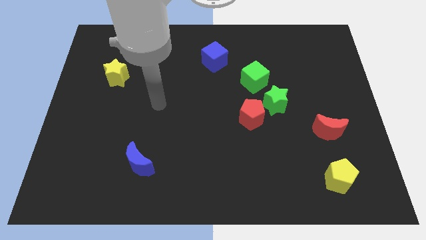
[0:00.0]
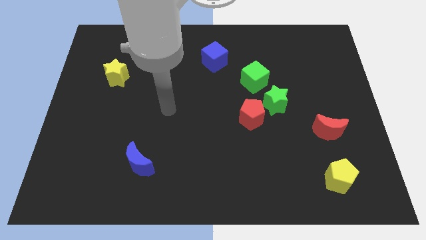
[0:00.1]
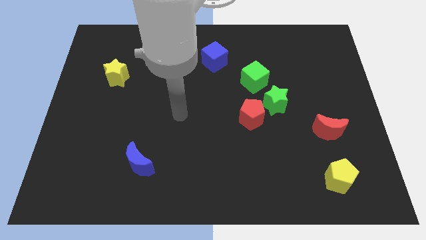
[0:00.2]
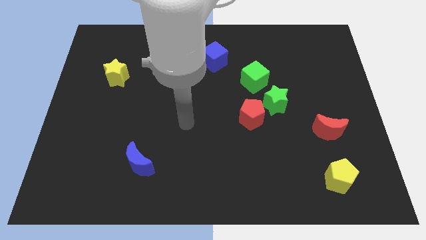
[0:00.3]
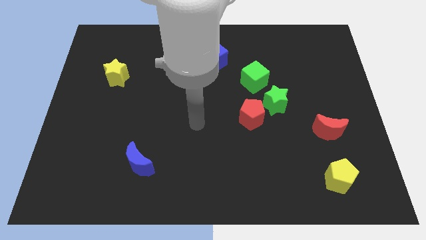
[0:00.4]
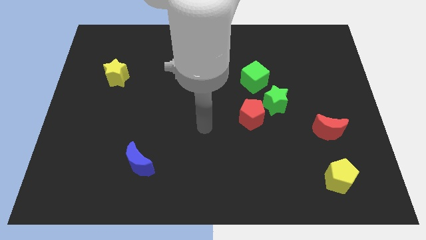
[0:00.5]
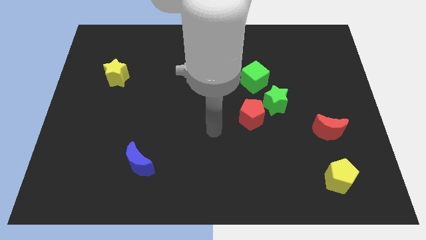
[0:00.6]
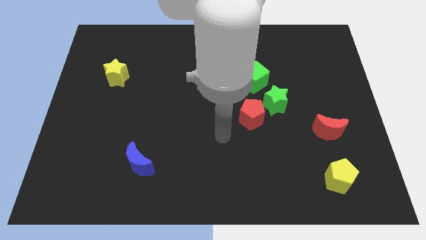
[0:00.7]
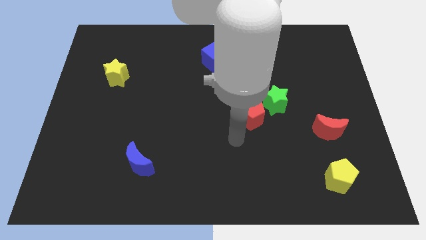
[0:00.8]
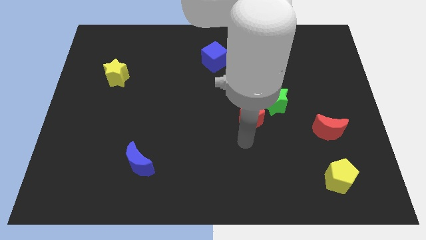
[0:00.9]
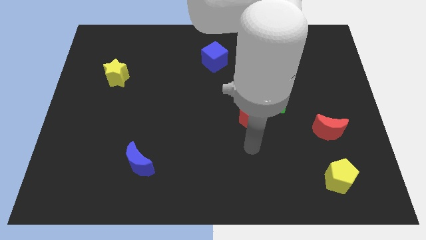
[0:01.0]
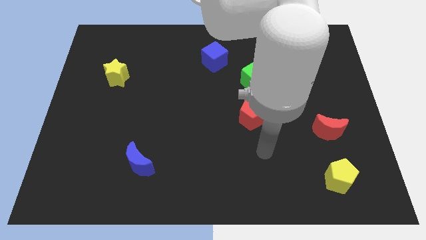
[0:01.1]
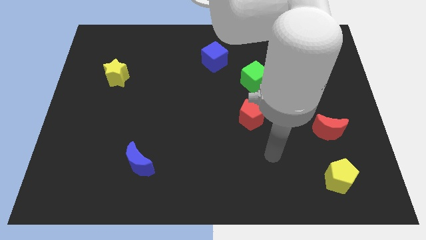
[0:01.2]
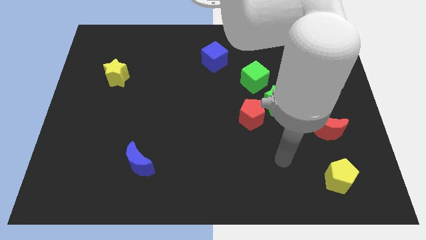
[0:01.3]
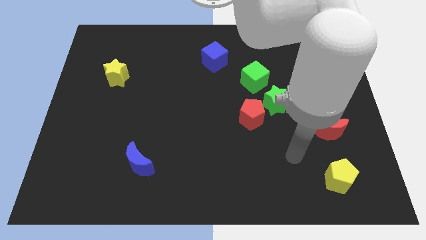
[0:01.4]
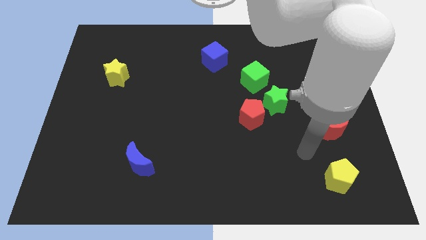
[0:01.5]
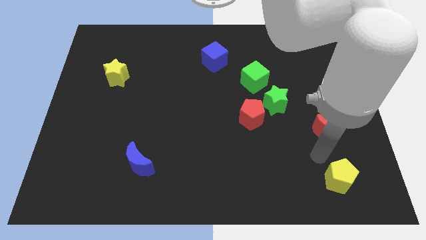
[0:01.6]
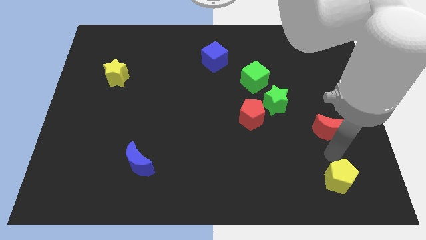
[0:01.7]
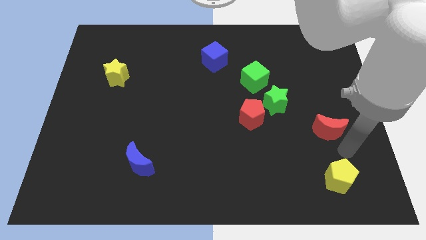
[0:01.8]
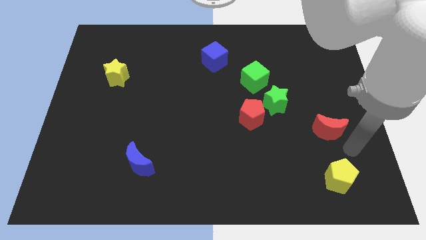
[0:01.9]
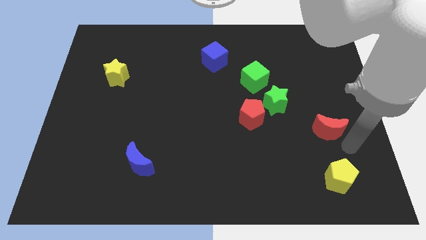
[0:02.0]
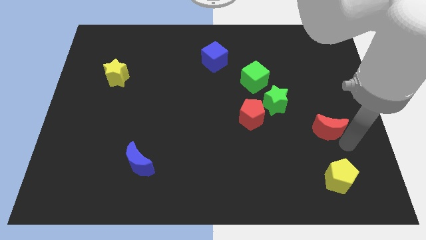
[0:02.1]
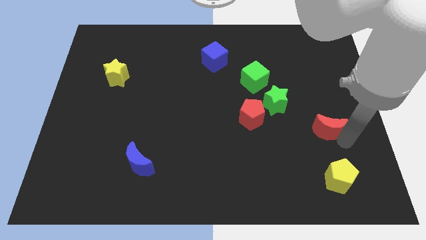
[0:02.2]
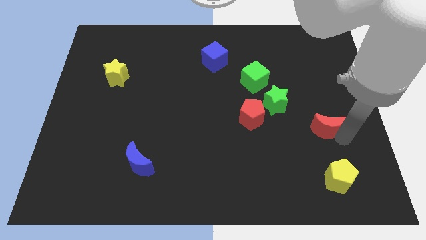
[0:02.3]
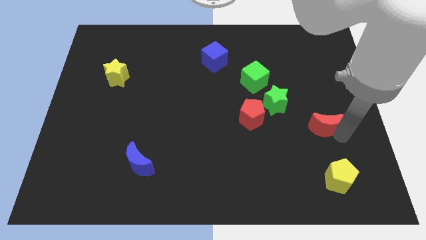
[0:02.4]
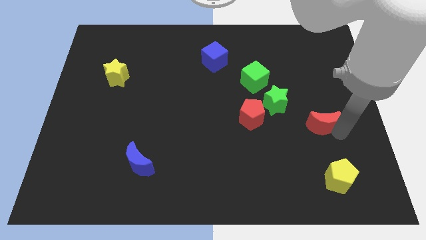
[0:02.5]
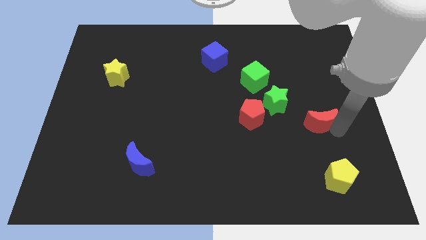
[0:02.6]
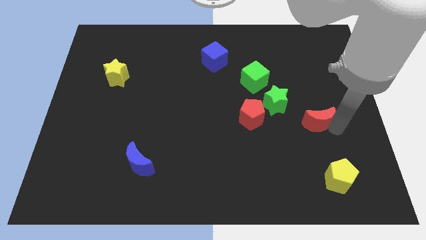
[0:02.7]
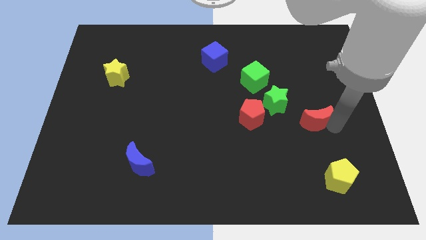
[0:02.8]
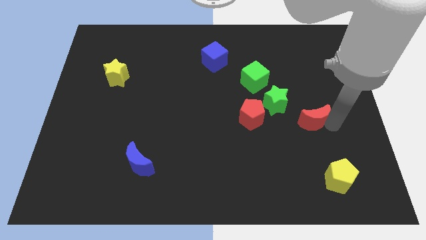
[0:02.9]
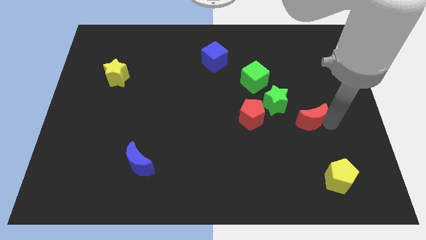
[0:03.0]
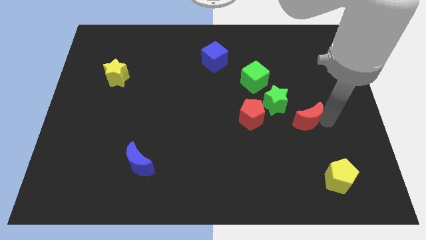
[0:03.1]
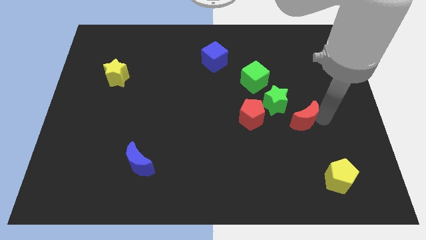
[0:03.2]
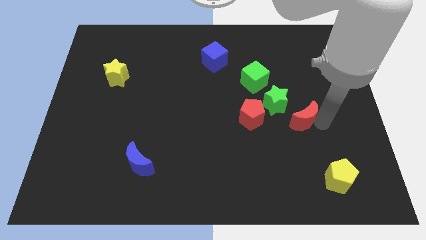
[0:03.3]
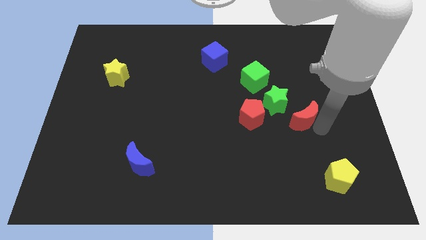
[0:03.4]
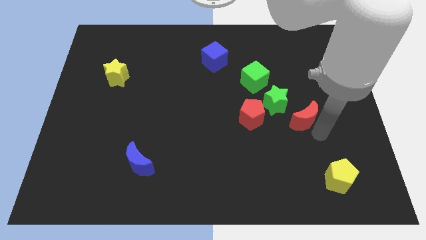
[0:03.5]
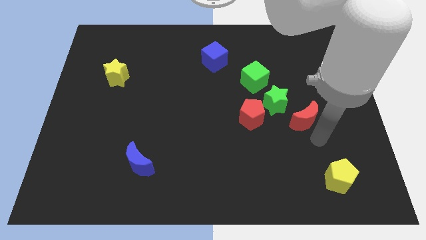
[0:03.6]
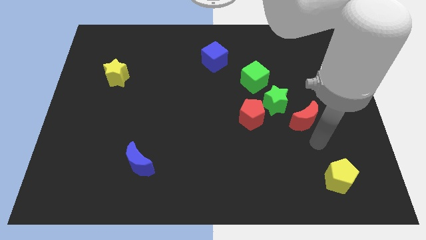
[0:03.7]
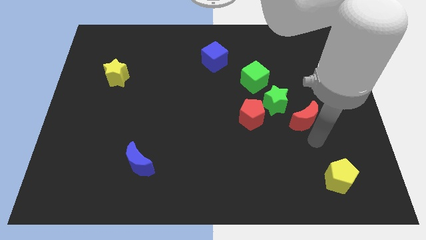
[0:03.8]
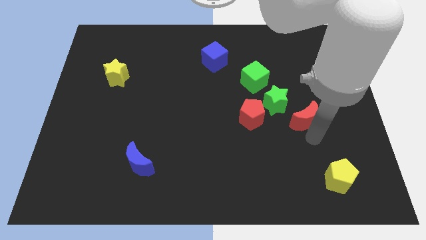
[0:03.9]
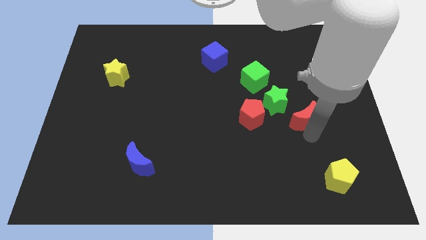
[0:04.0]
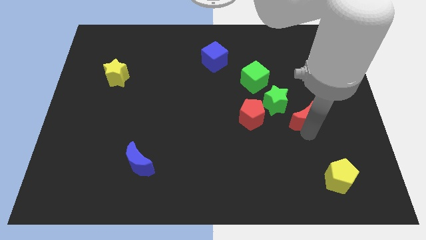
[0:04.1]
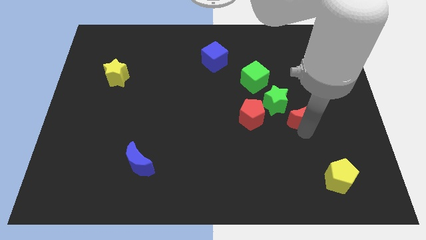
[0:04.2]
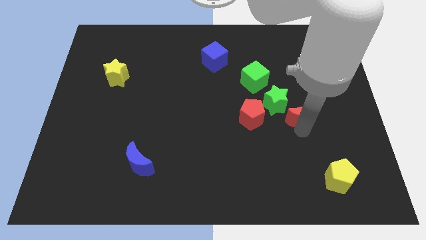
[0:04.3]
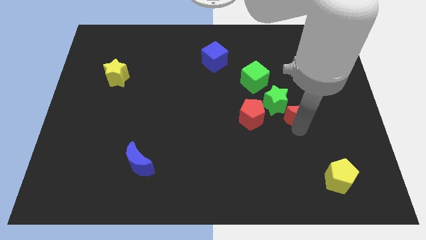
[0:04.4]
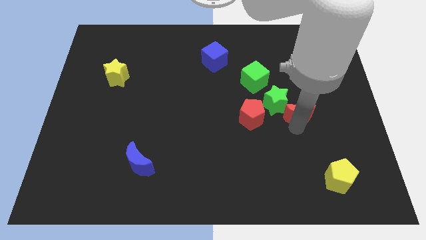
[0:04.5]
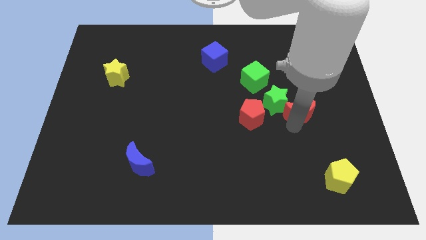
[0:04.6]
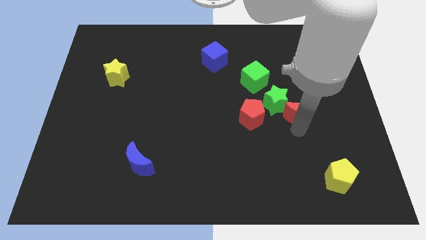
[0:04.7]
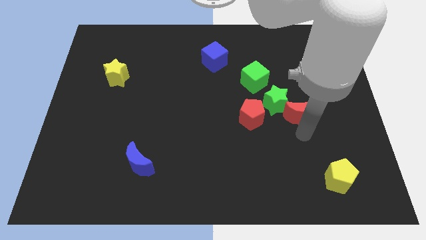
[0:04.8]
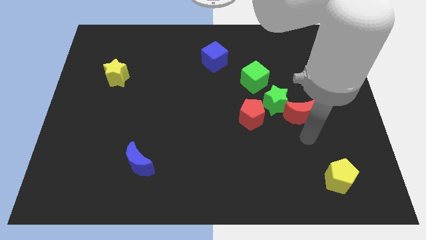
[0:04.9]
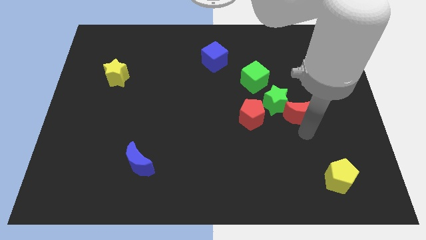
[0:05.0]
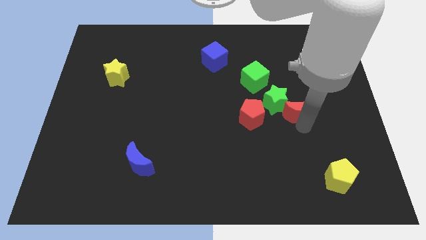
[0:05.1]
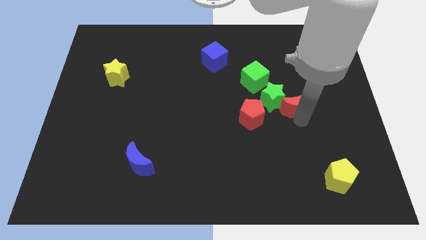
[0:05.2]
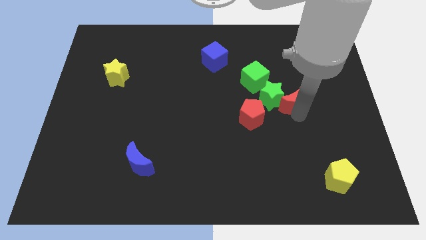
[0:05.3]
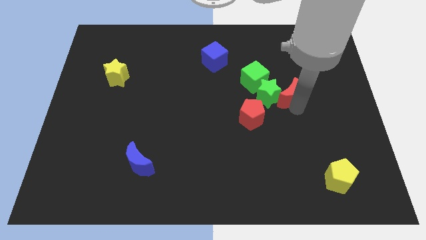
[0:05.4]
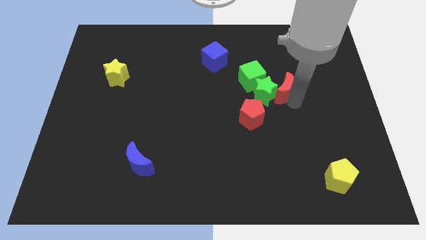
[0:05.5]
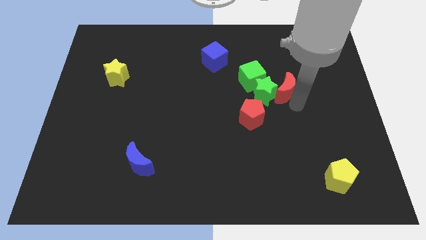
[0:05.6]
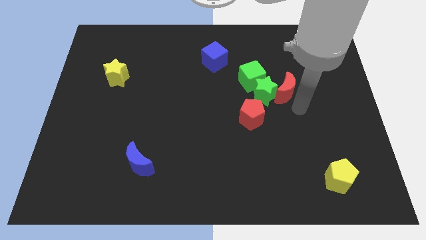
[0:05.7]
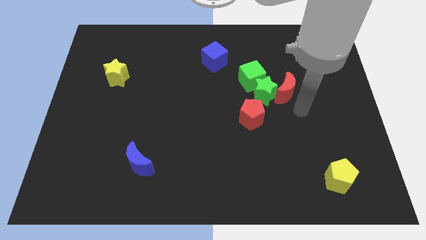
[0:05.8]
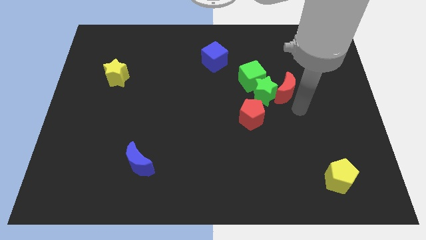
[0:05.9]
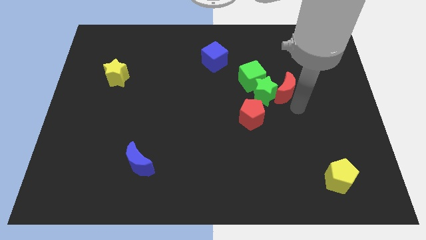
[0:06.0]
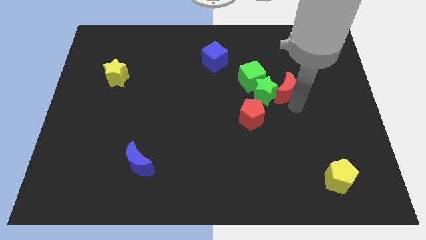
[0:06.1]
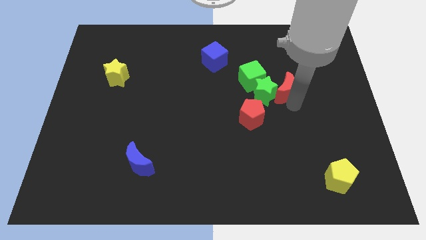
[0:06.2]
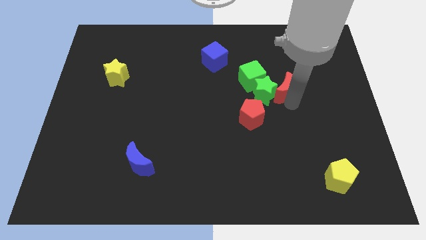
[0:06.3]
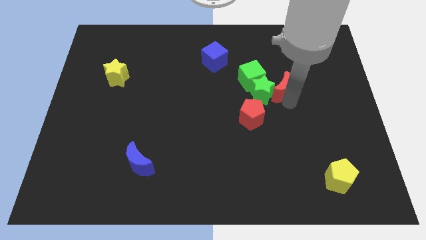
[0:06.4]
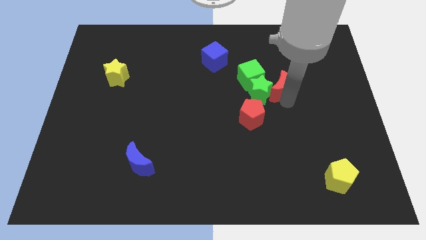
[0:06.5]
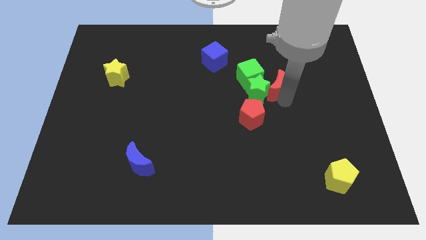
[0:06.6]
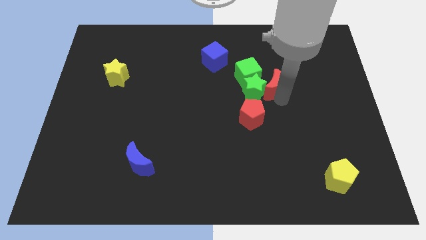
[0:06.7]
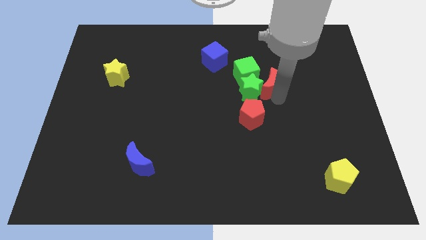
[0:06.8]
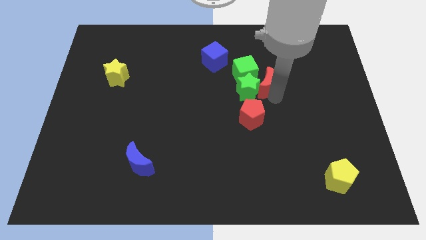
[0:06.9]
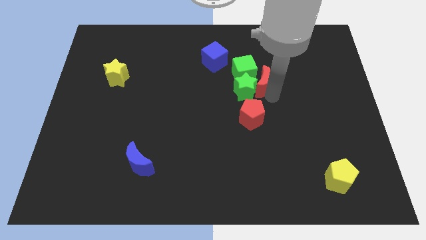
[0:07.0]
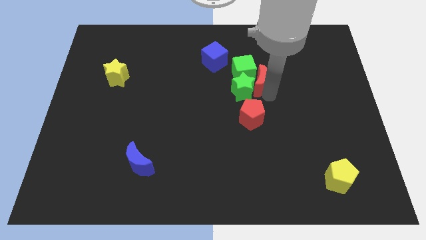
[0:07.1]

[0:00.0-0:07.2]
move the red moon next to the green cube
